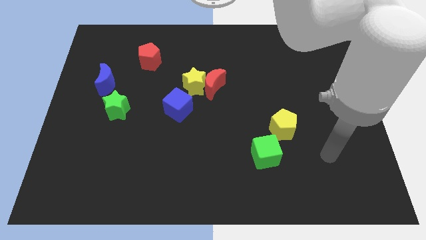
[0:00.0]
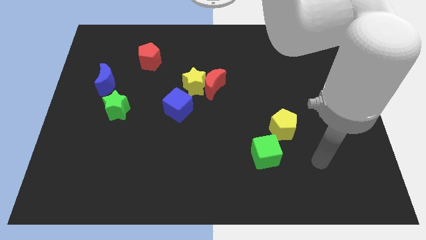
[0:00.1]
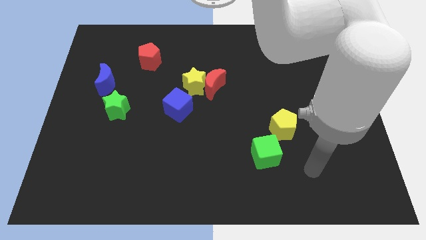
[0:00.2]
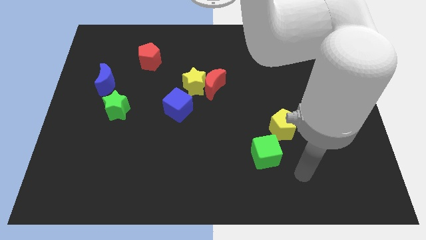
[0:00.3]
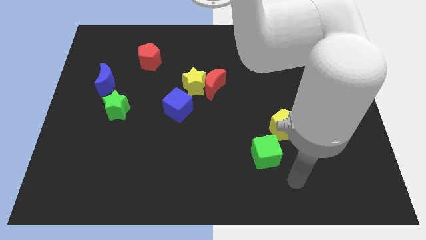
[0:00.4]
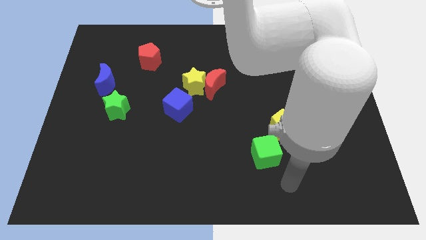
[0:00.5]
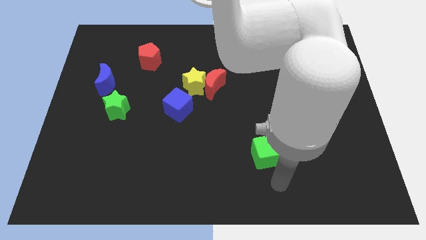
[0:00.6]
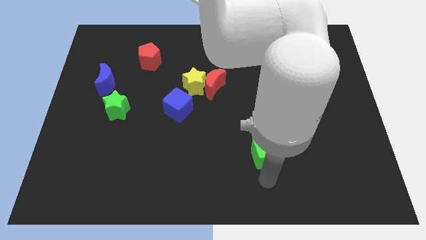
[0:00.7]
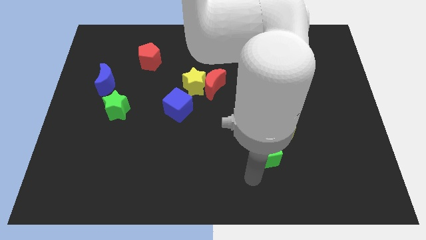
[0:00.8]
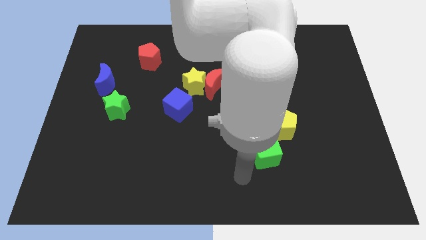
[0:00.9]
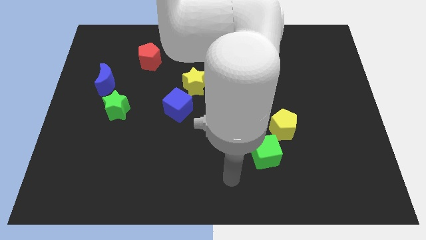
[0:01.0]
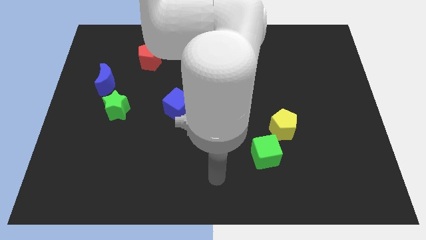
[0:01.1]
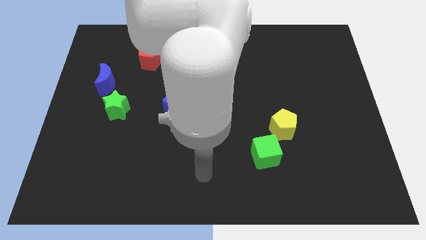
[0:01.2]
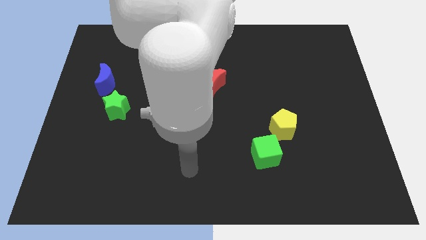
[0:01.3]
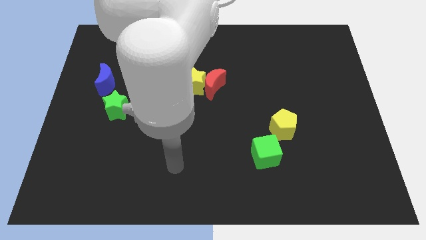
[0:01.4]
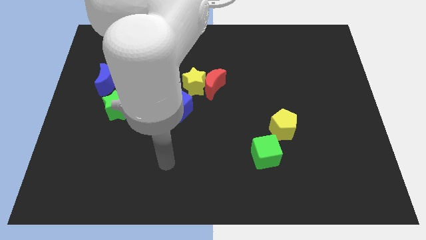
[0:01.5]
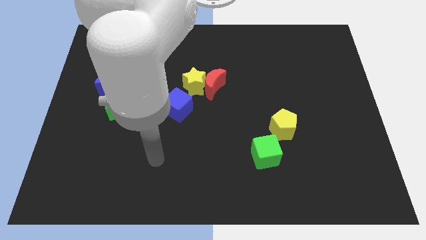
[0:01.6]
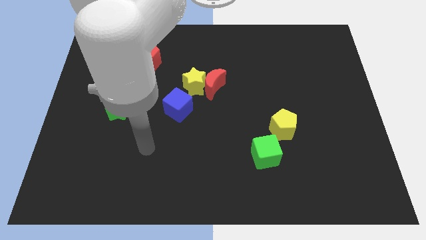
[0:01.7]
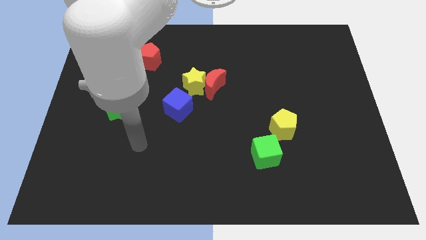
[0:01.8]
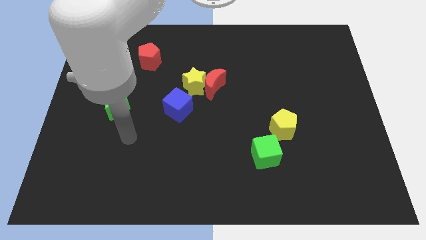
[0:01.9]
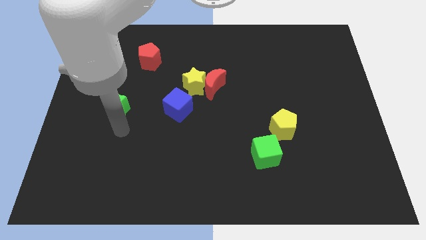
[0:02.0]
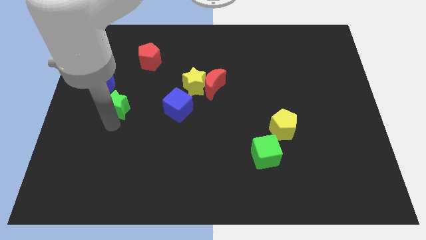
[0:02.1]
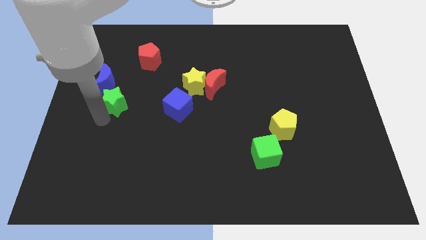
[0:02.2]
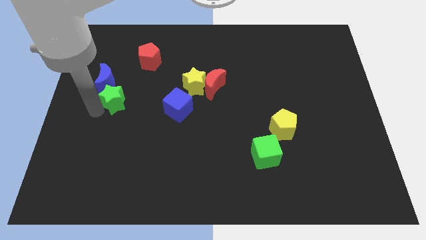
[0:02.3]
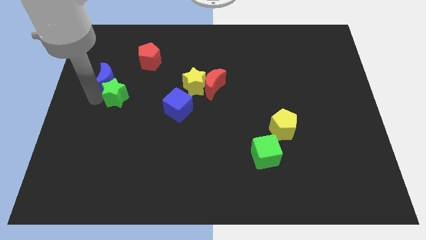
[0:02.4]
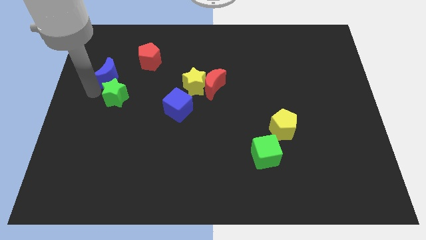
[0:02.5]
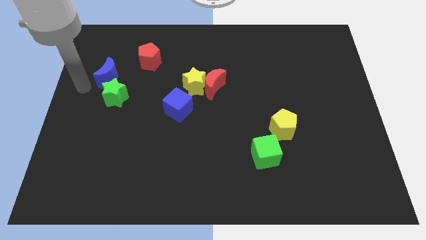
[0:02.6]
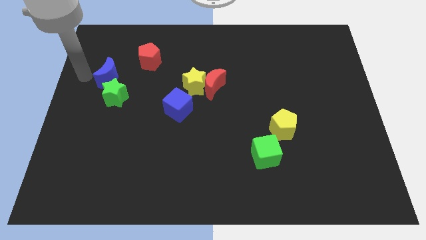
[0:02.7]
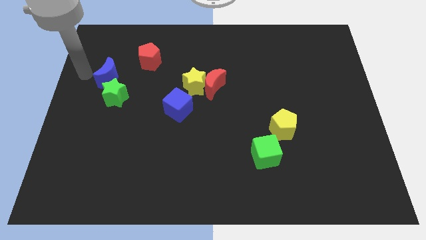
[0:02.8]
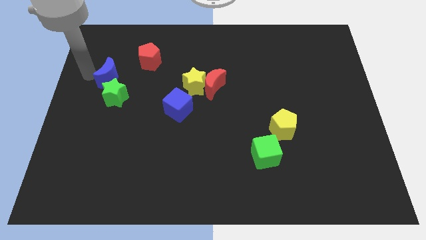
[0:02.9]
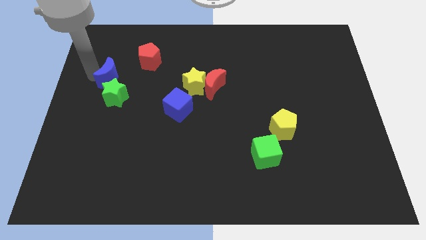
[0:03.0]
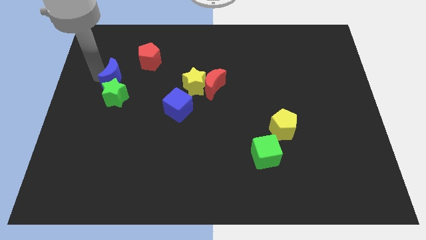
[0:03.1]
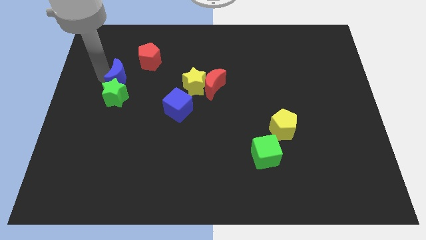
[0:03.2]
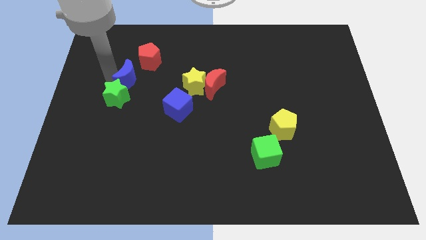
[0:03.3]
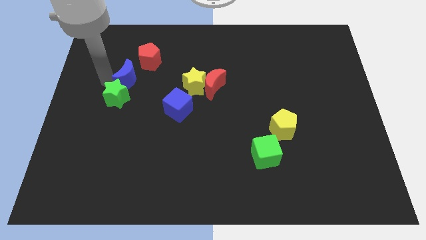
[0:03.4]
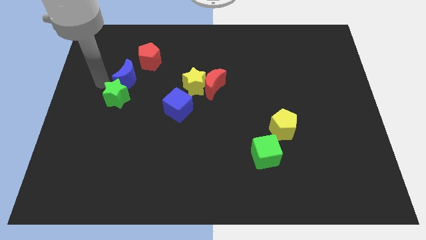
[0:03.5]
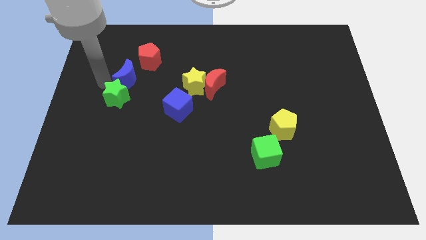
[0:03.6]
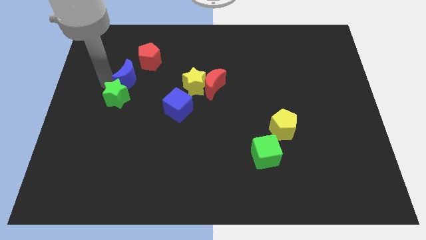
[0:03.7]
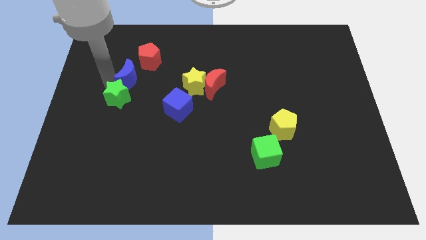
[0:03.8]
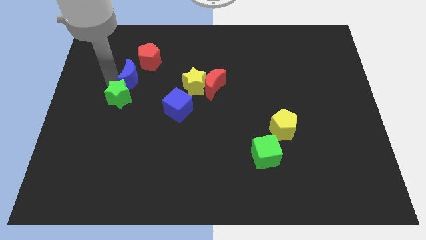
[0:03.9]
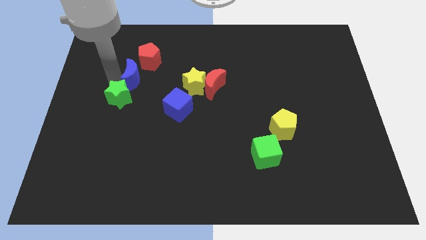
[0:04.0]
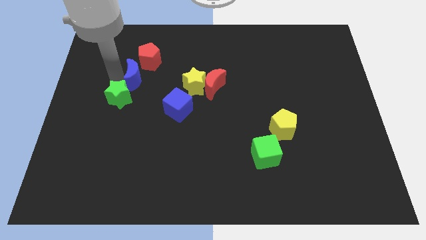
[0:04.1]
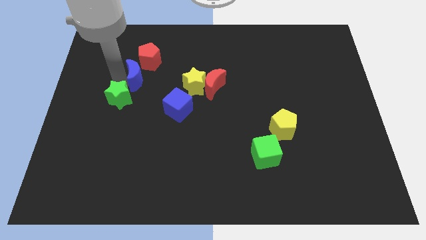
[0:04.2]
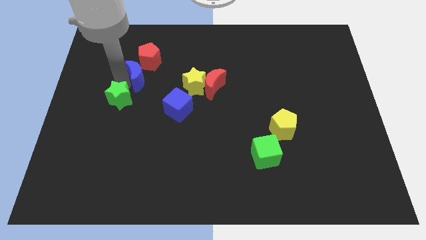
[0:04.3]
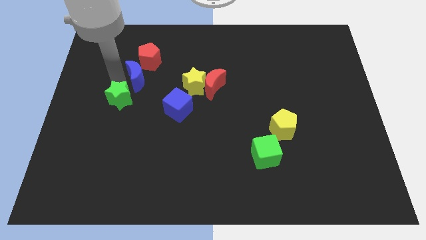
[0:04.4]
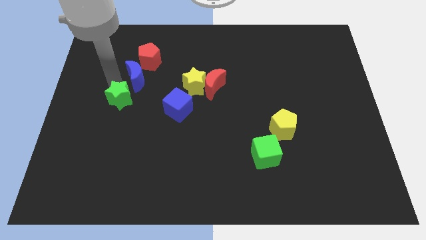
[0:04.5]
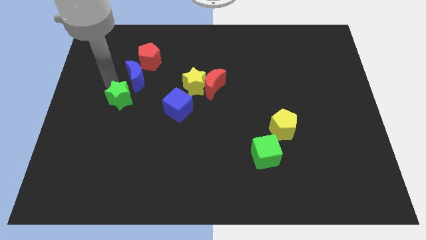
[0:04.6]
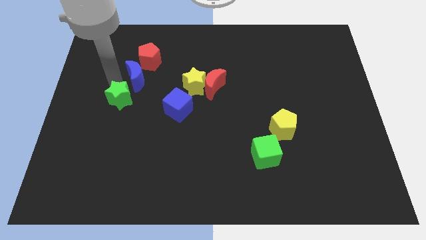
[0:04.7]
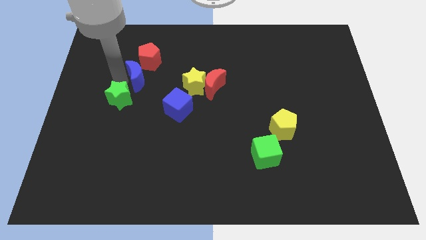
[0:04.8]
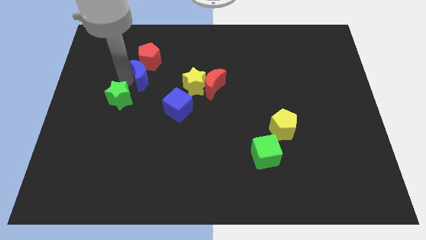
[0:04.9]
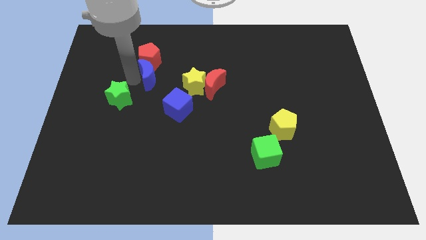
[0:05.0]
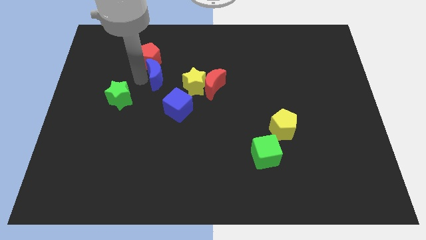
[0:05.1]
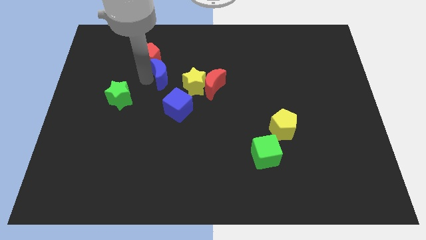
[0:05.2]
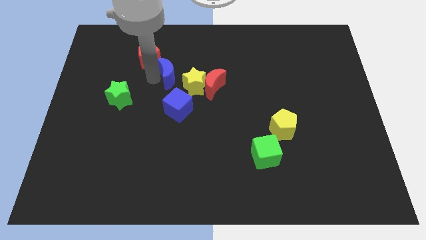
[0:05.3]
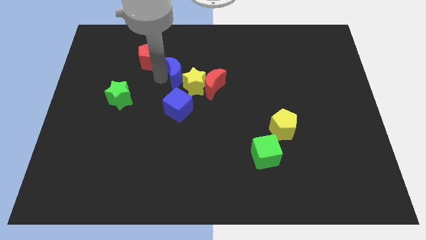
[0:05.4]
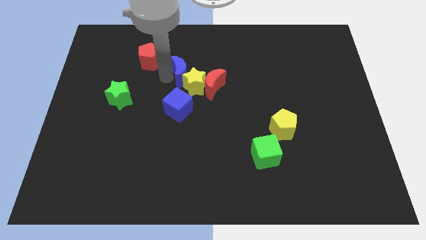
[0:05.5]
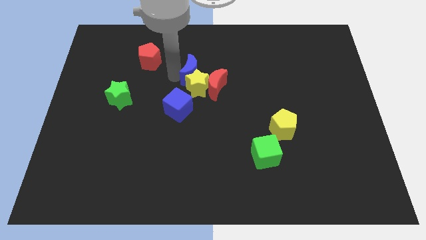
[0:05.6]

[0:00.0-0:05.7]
move the blue moon to the right

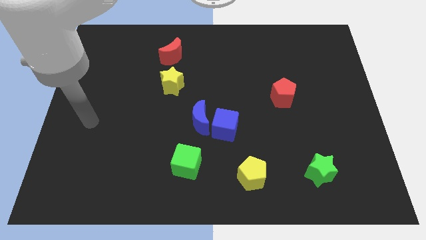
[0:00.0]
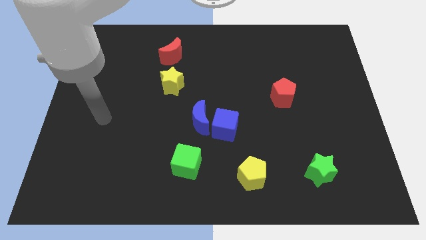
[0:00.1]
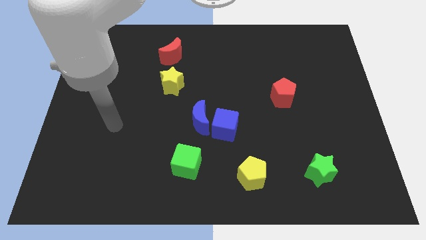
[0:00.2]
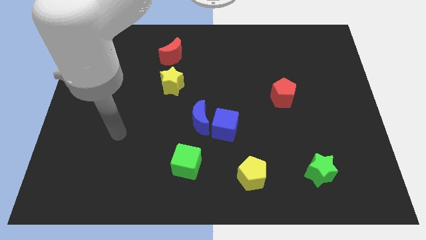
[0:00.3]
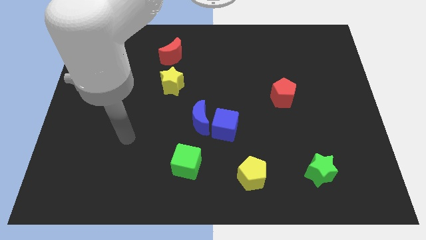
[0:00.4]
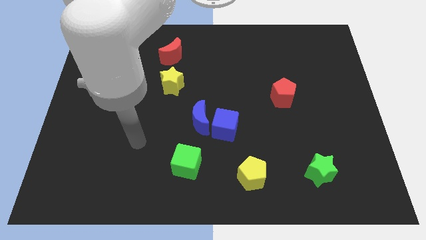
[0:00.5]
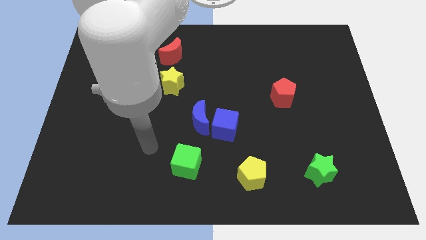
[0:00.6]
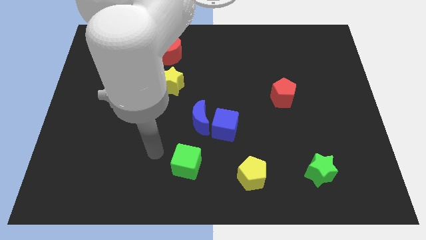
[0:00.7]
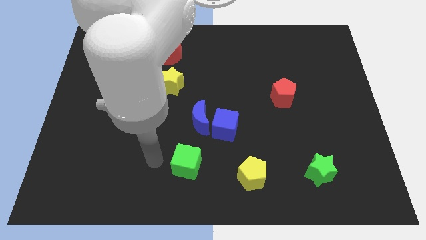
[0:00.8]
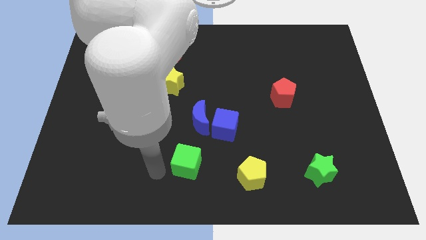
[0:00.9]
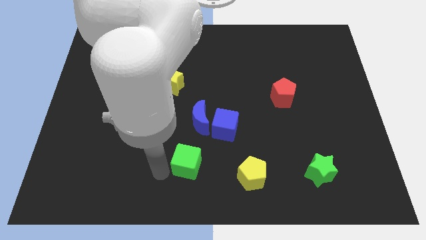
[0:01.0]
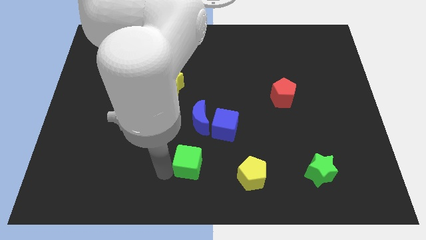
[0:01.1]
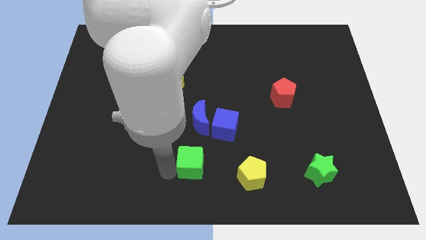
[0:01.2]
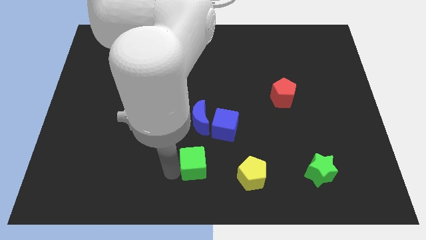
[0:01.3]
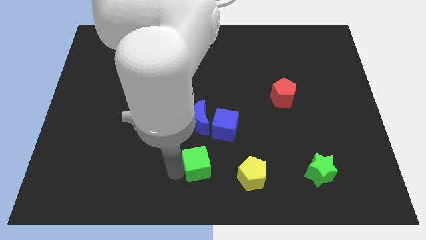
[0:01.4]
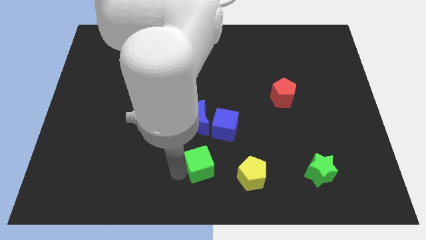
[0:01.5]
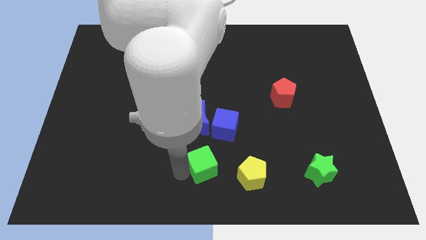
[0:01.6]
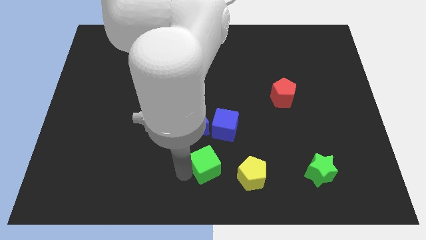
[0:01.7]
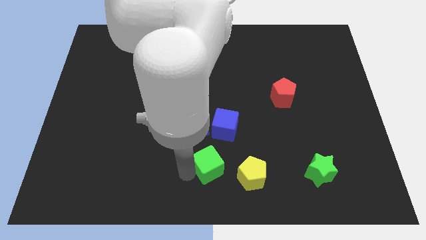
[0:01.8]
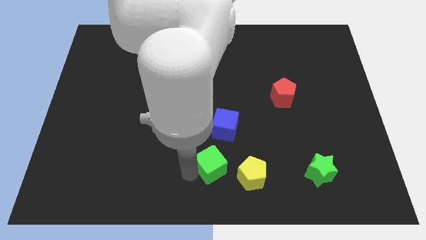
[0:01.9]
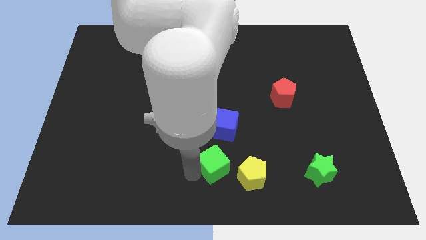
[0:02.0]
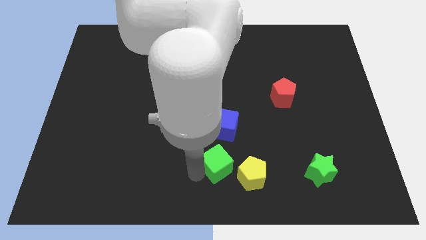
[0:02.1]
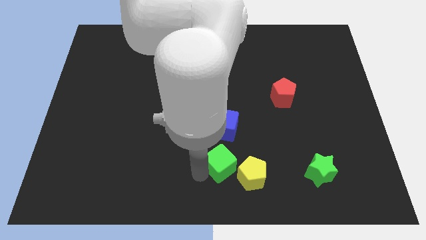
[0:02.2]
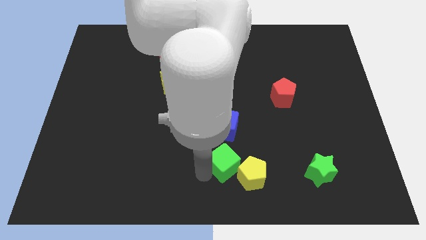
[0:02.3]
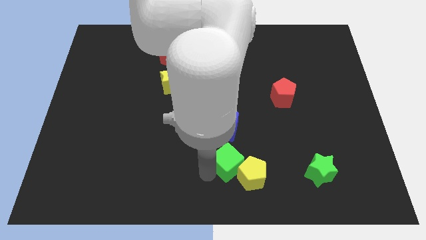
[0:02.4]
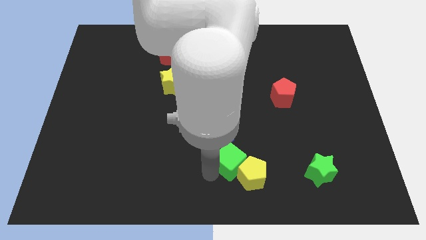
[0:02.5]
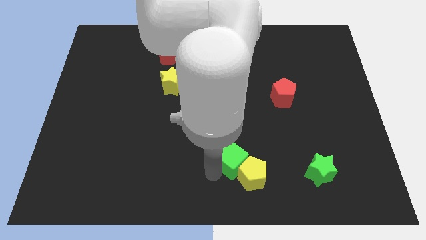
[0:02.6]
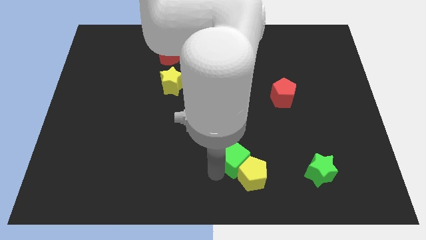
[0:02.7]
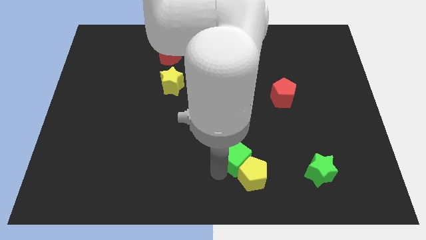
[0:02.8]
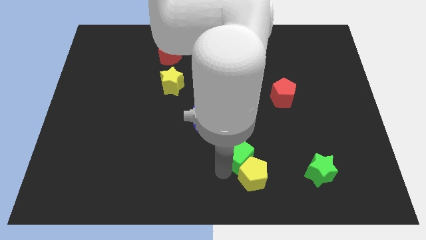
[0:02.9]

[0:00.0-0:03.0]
slightly slide the green cube diagonally up and right
